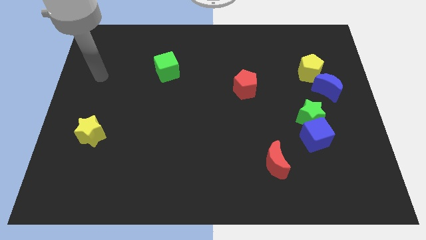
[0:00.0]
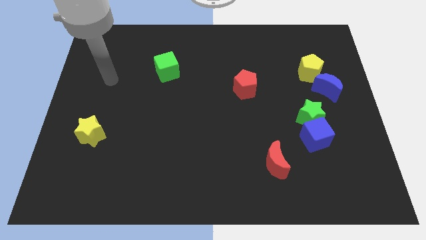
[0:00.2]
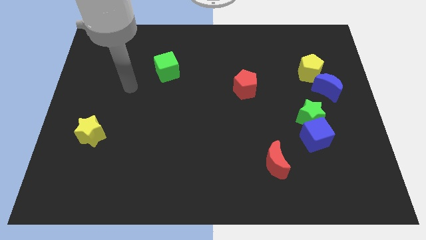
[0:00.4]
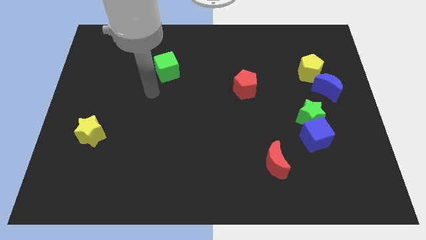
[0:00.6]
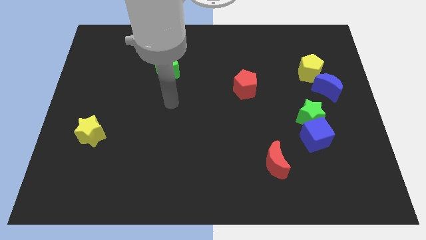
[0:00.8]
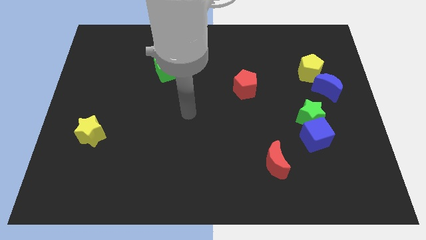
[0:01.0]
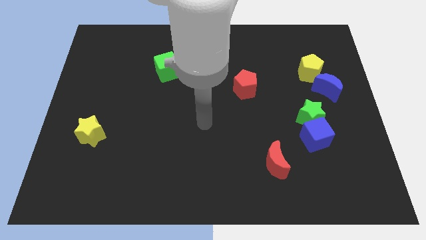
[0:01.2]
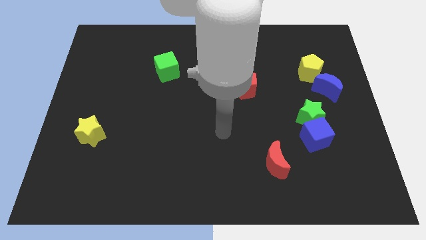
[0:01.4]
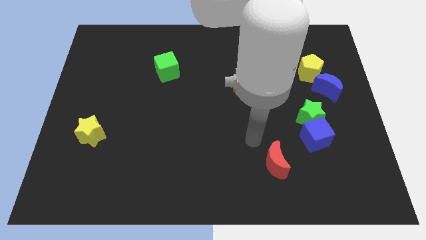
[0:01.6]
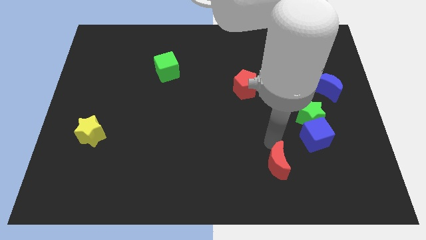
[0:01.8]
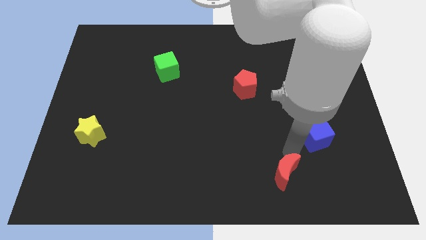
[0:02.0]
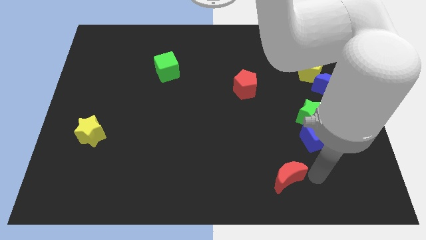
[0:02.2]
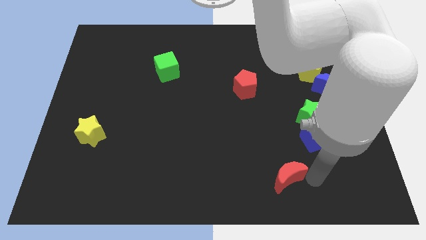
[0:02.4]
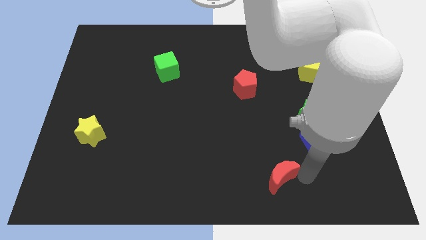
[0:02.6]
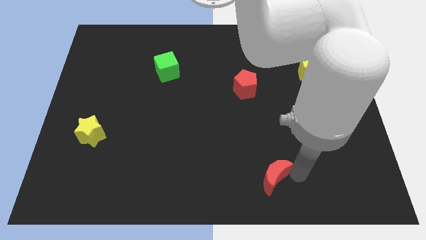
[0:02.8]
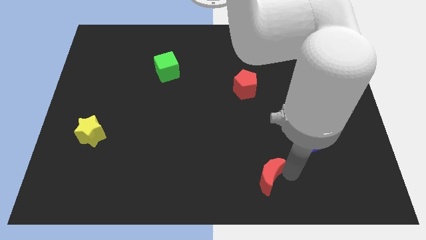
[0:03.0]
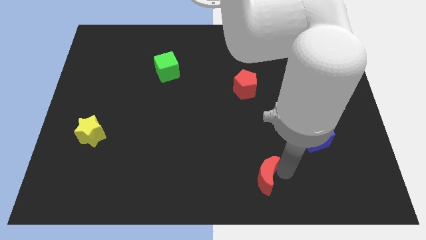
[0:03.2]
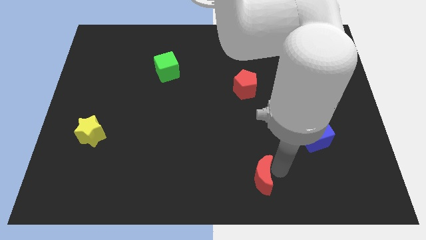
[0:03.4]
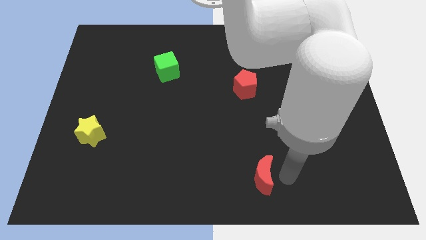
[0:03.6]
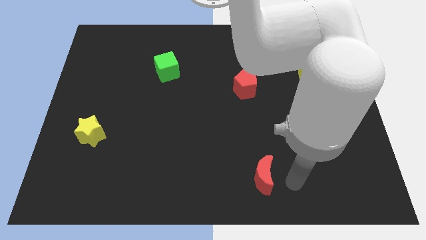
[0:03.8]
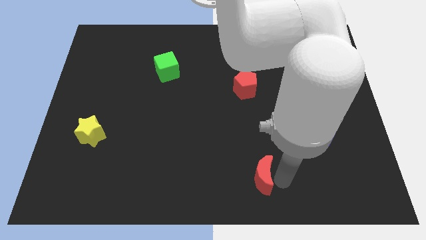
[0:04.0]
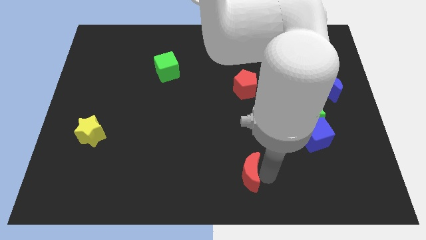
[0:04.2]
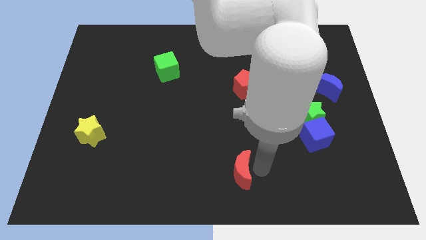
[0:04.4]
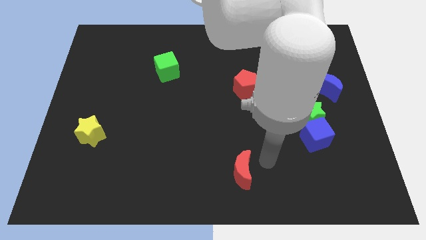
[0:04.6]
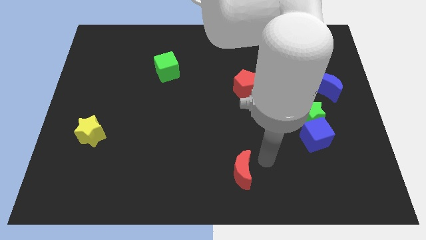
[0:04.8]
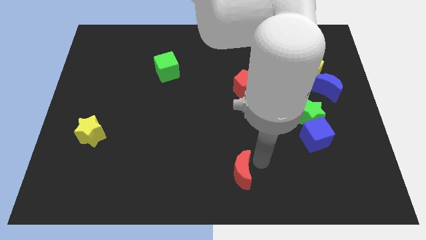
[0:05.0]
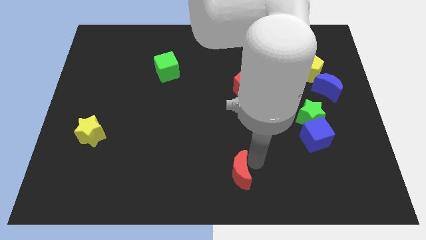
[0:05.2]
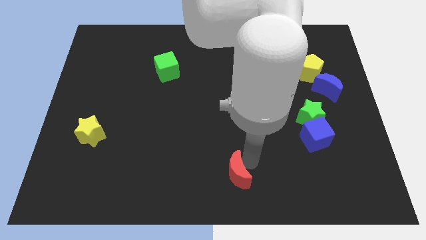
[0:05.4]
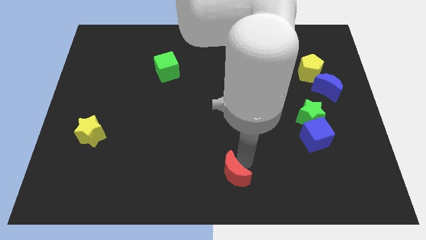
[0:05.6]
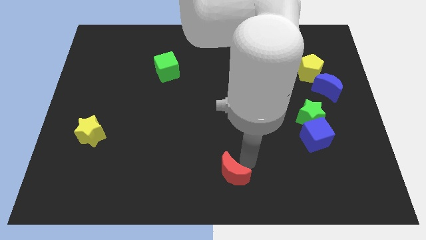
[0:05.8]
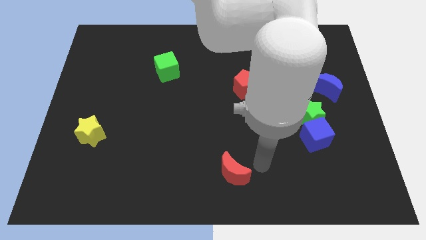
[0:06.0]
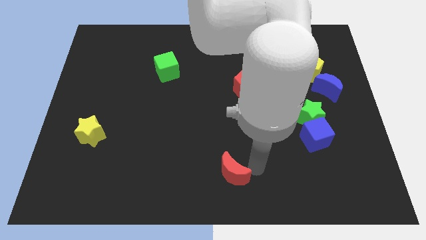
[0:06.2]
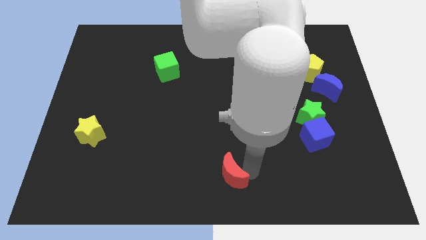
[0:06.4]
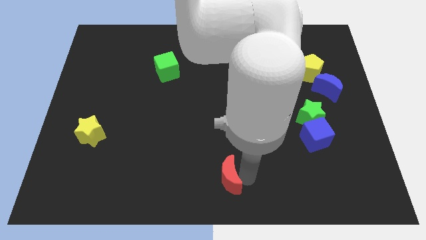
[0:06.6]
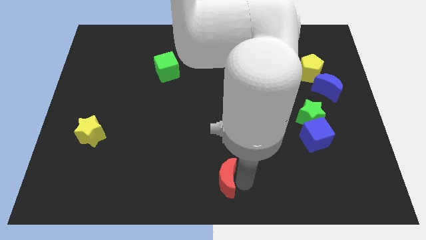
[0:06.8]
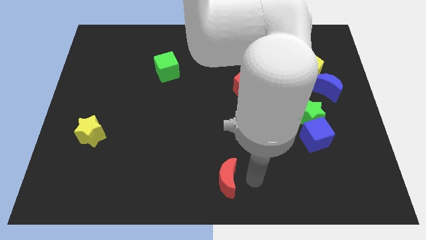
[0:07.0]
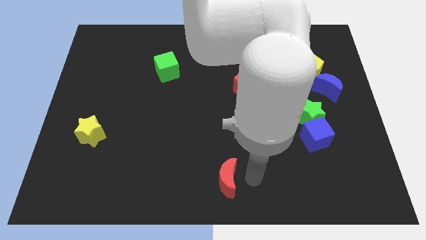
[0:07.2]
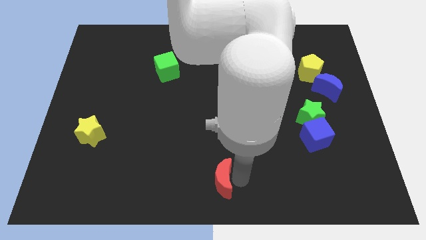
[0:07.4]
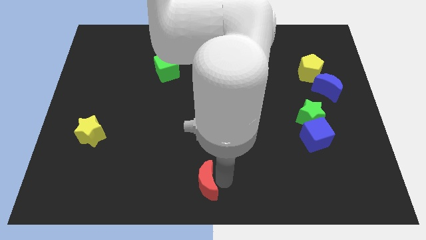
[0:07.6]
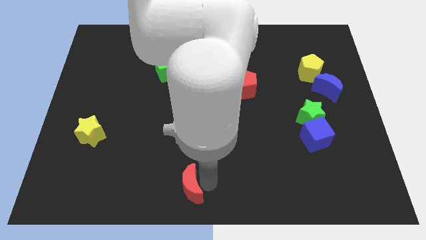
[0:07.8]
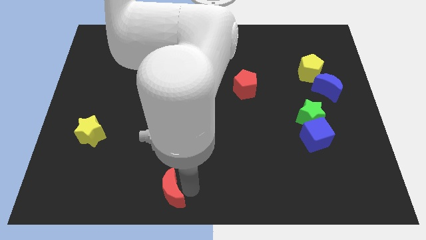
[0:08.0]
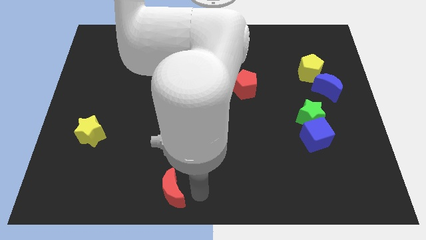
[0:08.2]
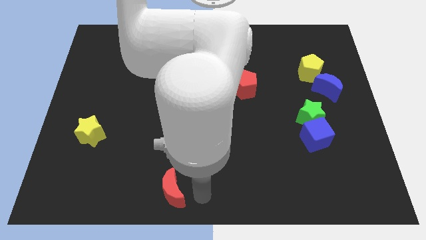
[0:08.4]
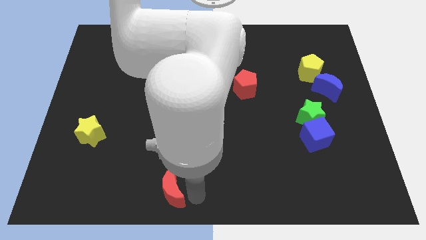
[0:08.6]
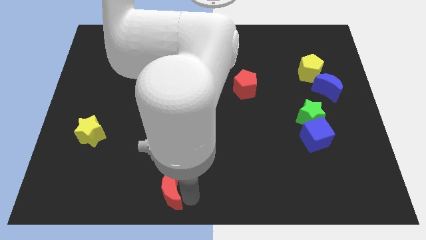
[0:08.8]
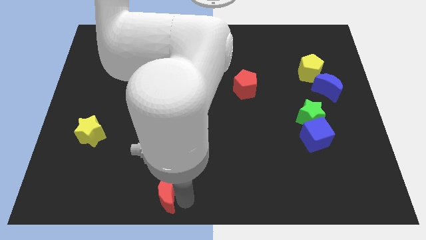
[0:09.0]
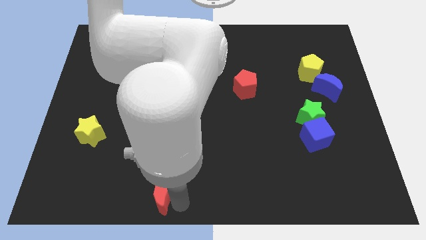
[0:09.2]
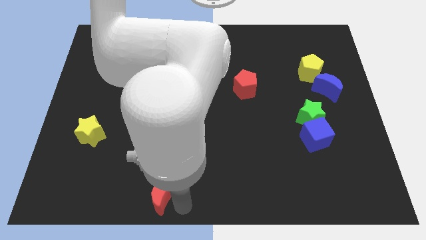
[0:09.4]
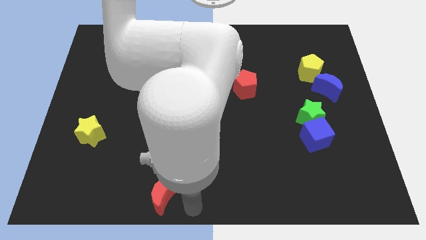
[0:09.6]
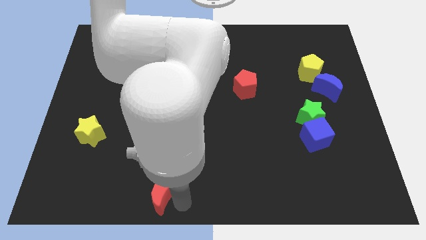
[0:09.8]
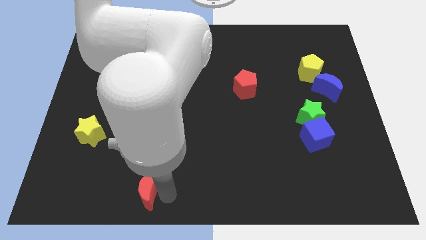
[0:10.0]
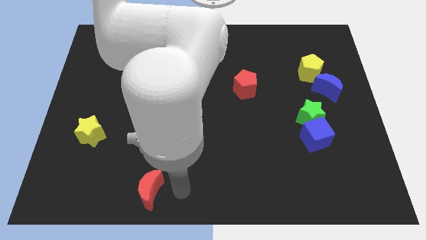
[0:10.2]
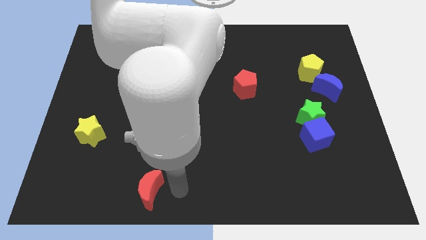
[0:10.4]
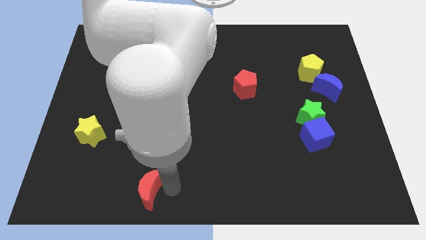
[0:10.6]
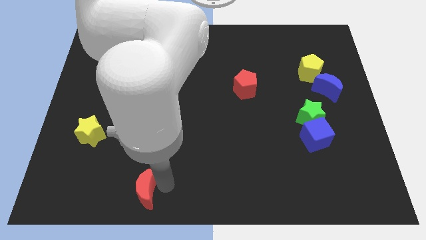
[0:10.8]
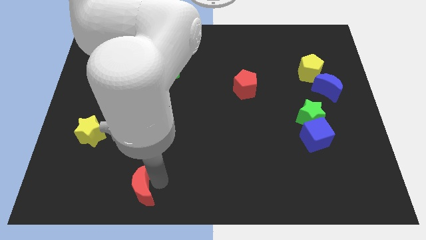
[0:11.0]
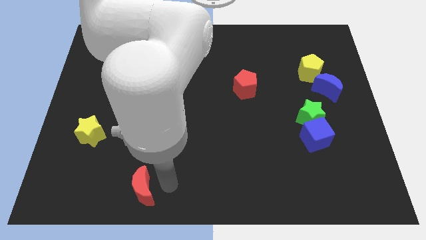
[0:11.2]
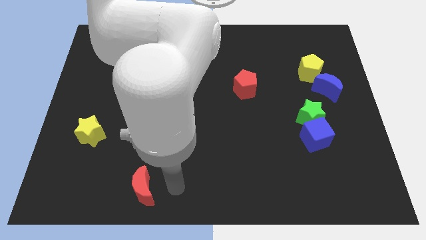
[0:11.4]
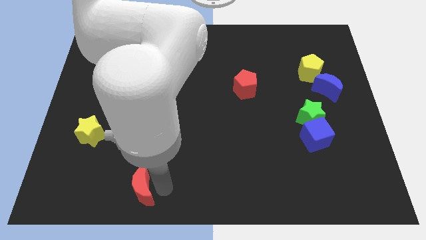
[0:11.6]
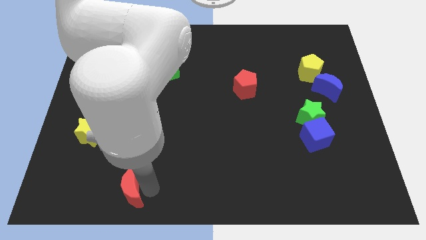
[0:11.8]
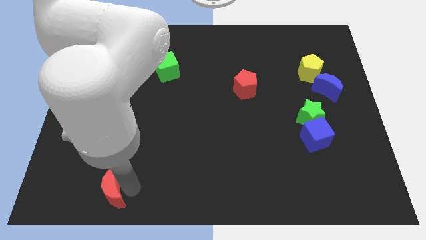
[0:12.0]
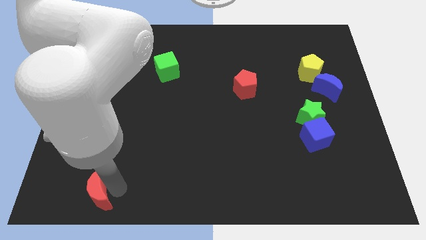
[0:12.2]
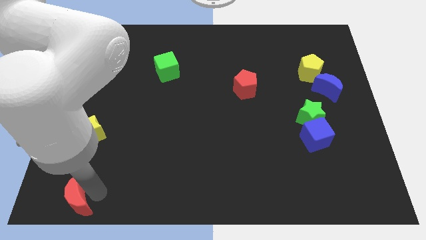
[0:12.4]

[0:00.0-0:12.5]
put the red moon to the lower left corner
